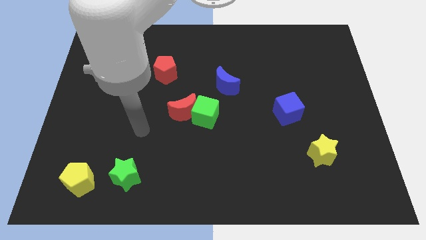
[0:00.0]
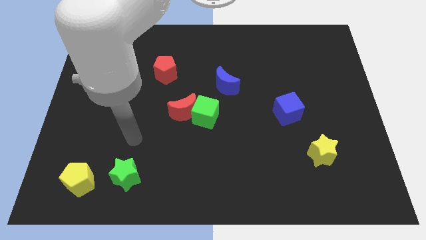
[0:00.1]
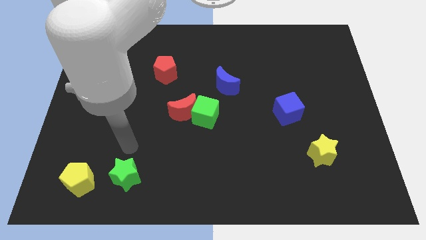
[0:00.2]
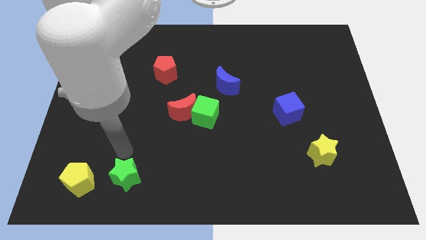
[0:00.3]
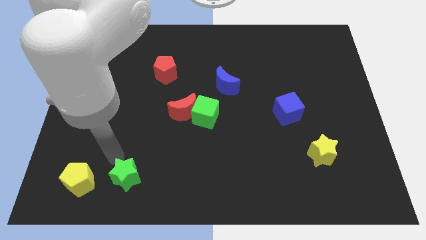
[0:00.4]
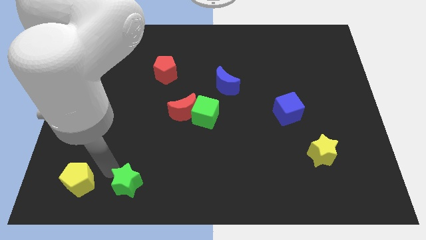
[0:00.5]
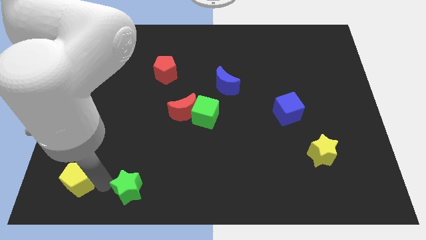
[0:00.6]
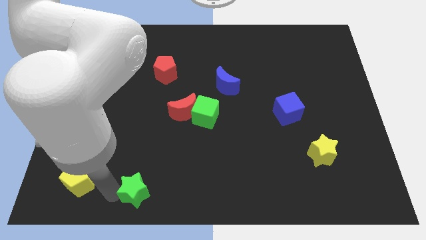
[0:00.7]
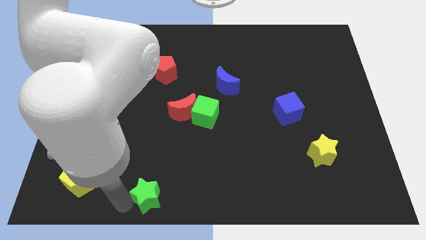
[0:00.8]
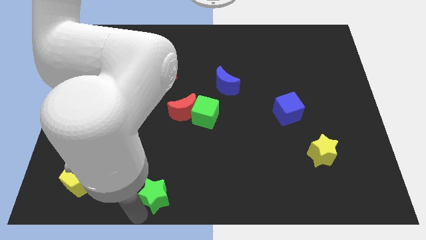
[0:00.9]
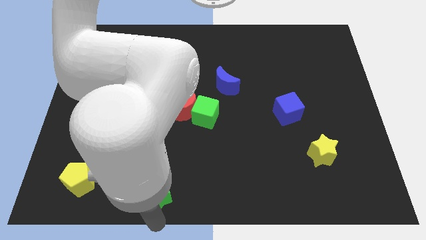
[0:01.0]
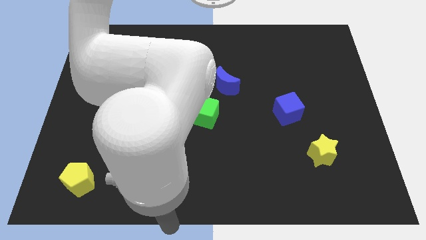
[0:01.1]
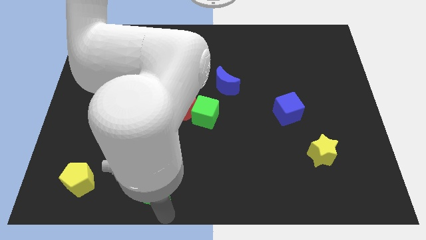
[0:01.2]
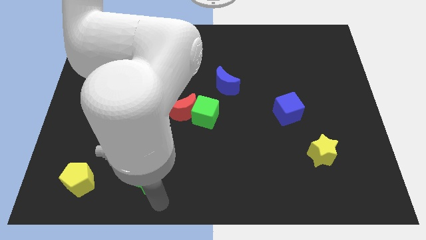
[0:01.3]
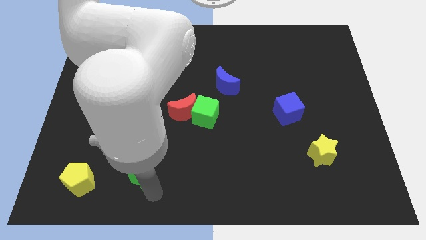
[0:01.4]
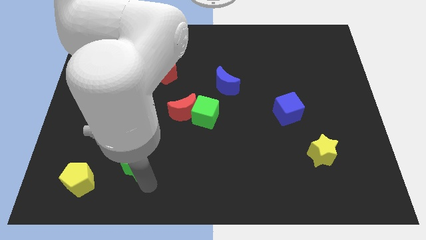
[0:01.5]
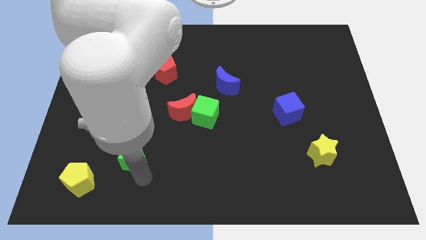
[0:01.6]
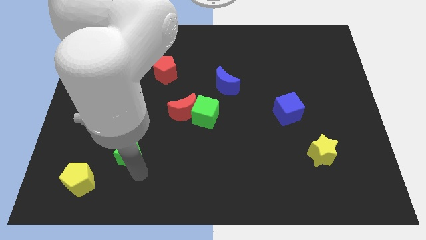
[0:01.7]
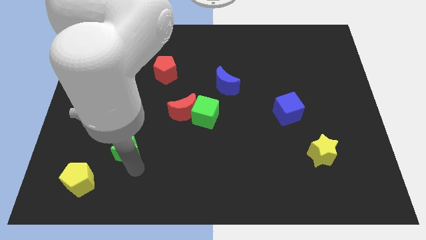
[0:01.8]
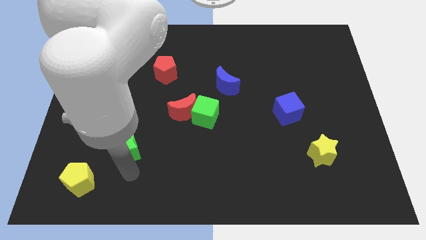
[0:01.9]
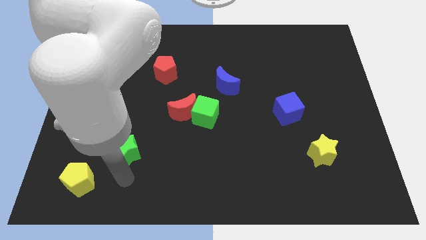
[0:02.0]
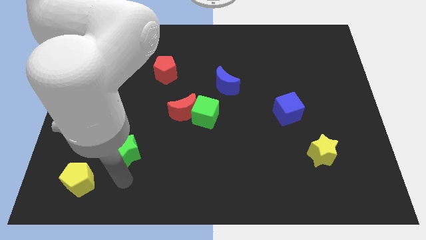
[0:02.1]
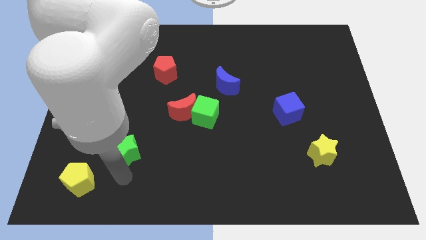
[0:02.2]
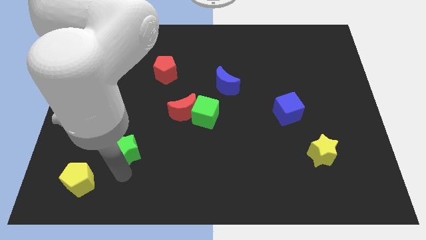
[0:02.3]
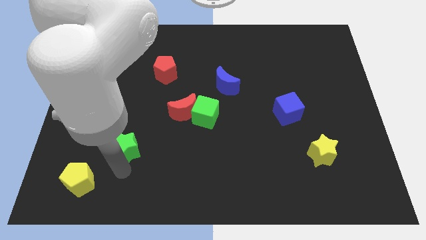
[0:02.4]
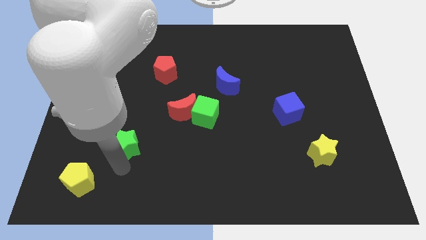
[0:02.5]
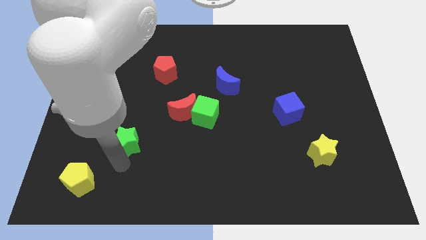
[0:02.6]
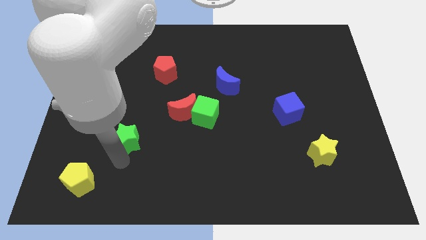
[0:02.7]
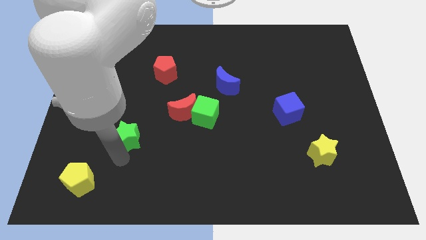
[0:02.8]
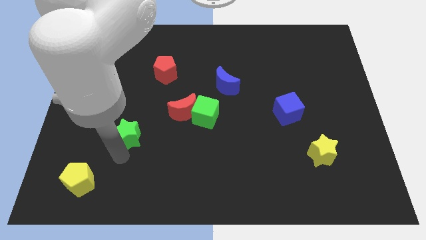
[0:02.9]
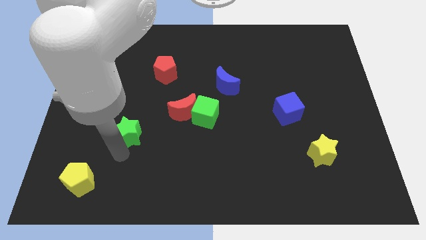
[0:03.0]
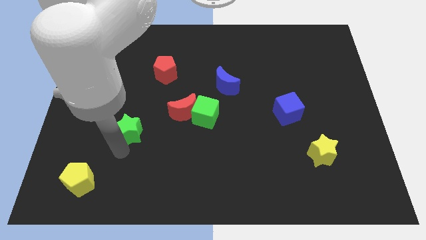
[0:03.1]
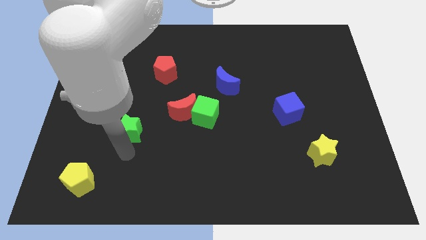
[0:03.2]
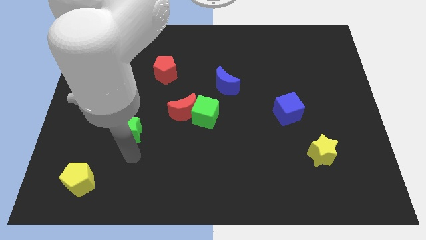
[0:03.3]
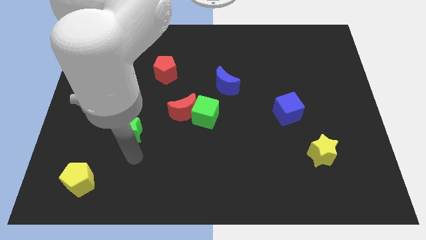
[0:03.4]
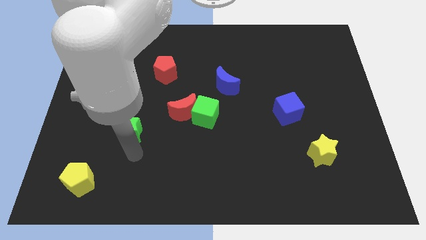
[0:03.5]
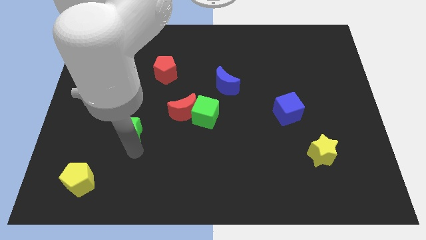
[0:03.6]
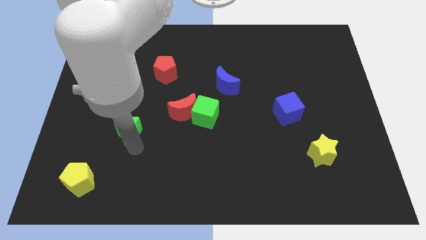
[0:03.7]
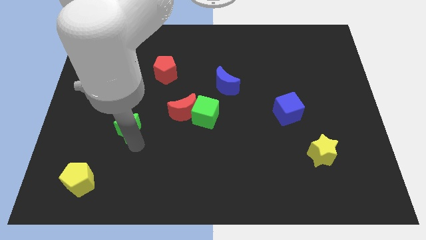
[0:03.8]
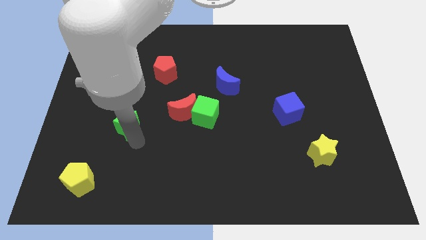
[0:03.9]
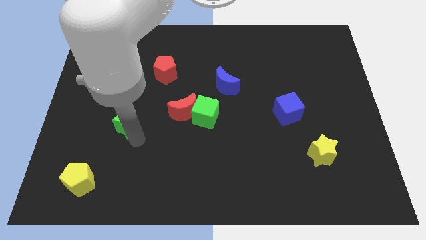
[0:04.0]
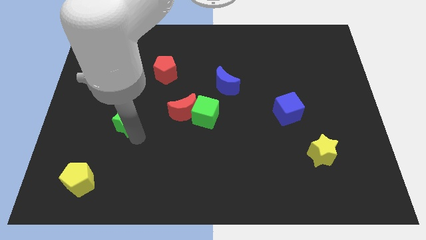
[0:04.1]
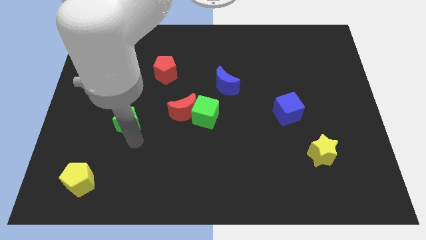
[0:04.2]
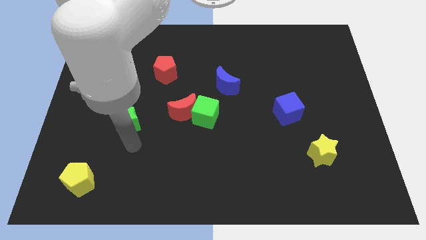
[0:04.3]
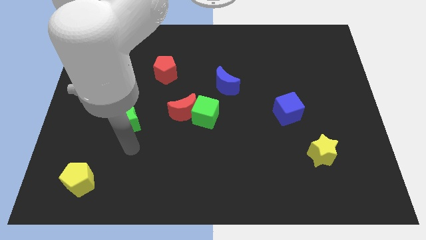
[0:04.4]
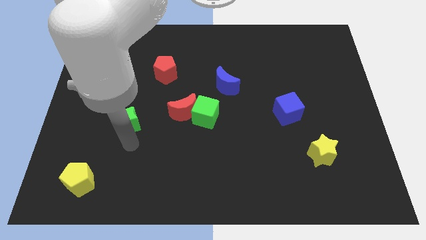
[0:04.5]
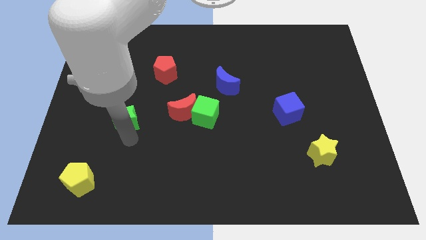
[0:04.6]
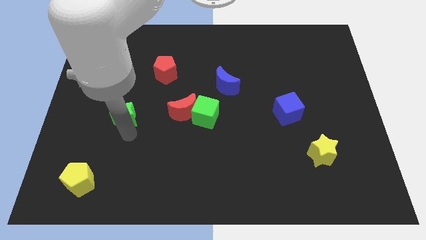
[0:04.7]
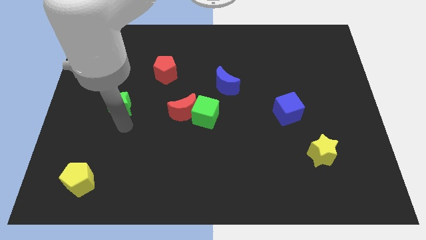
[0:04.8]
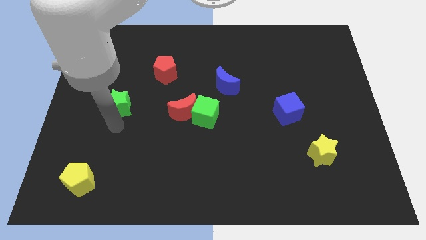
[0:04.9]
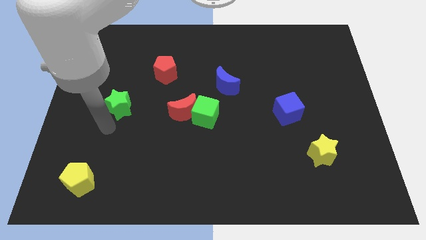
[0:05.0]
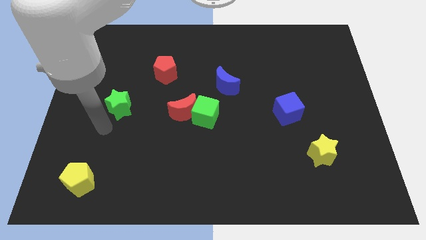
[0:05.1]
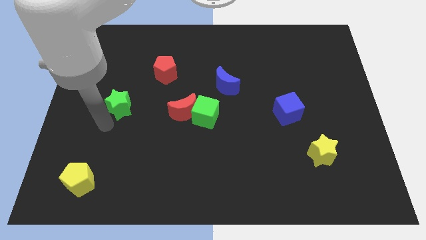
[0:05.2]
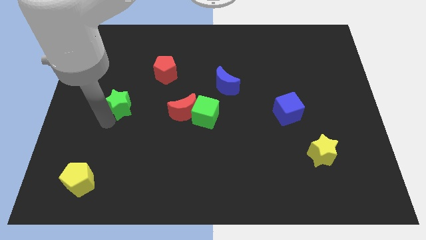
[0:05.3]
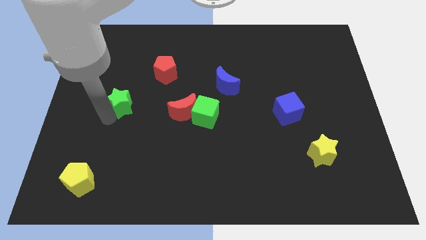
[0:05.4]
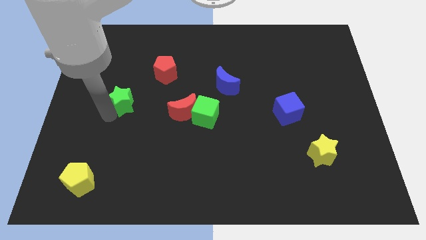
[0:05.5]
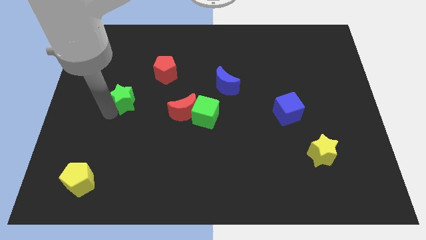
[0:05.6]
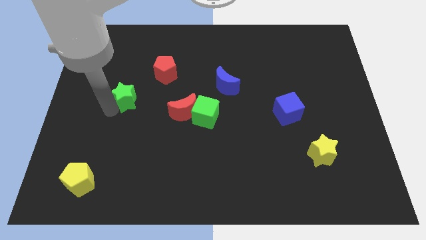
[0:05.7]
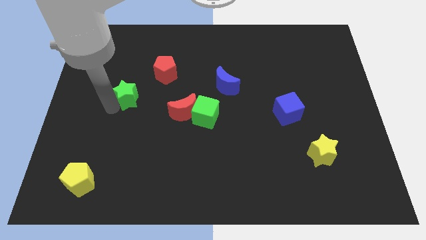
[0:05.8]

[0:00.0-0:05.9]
push the green star up

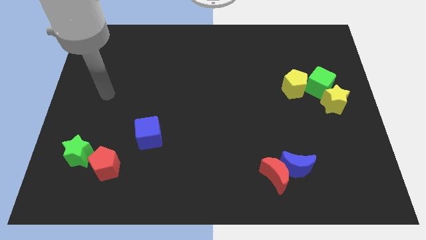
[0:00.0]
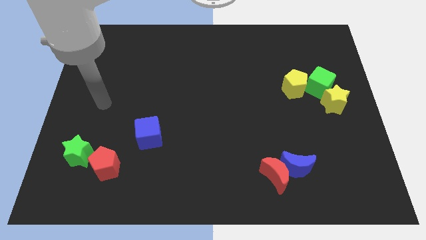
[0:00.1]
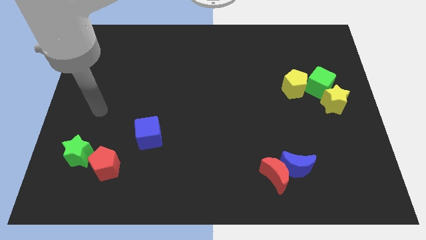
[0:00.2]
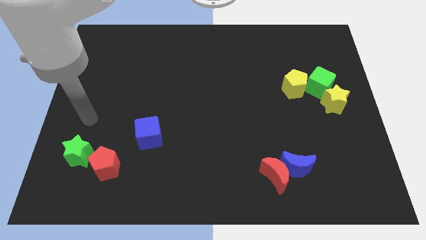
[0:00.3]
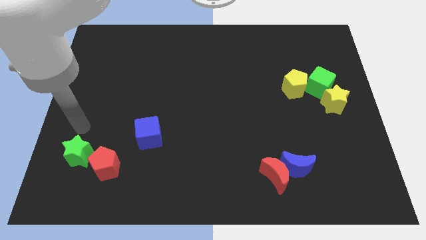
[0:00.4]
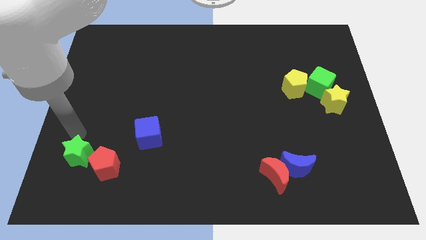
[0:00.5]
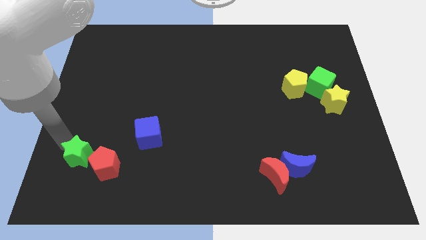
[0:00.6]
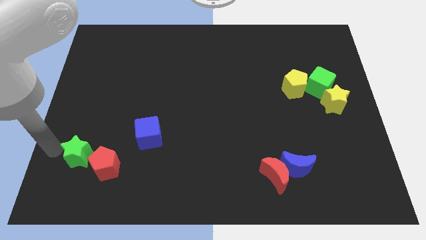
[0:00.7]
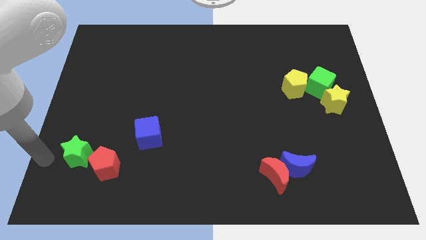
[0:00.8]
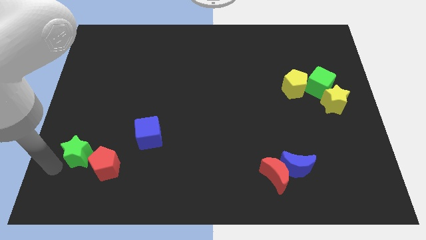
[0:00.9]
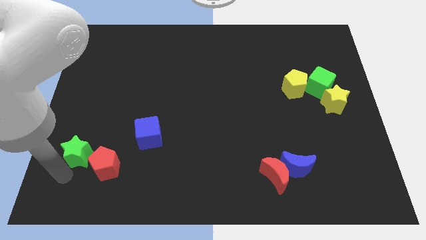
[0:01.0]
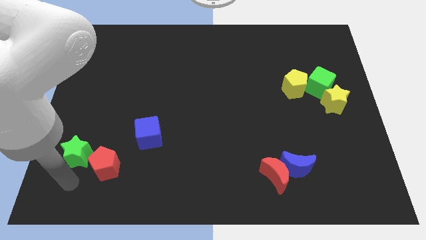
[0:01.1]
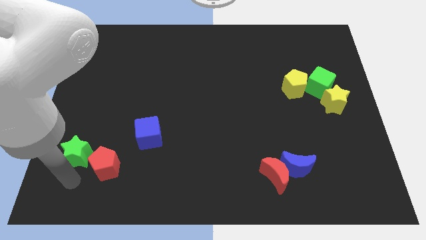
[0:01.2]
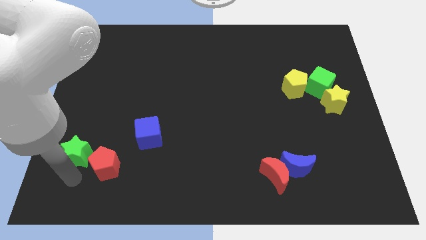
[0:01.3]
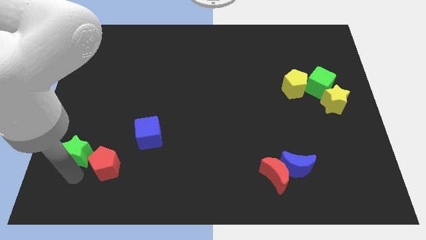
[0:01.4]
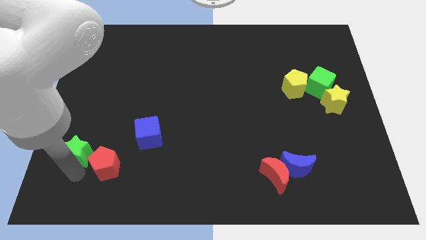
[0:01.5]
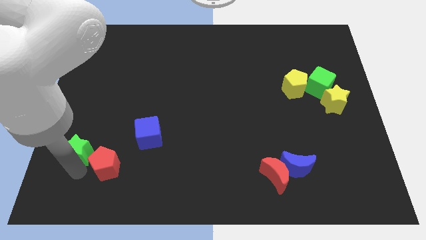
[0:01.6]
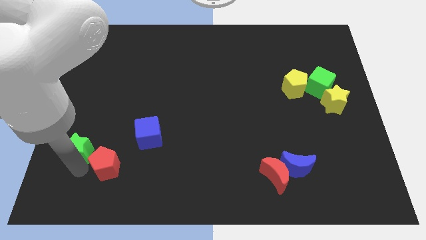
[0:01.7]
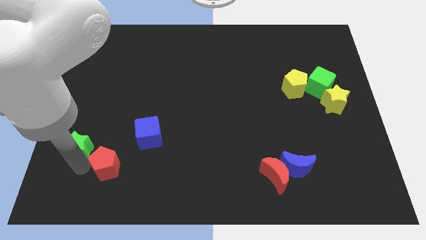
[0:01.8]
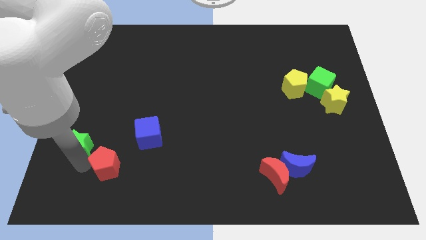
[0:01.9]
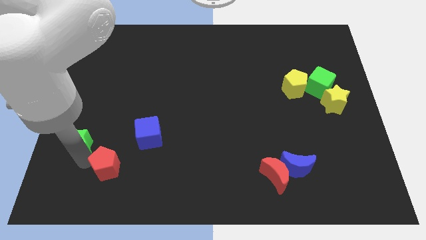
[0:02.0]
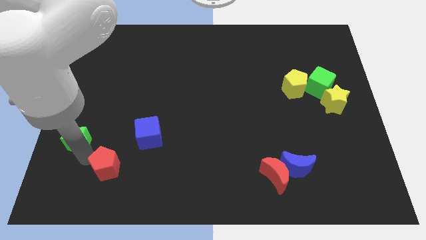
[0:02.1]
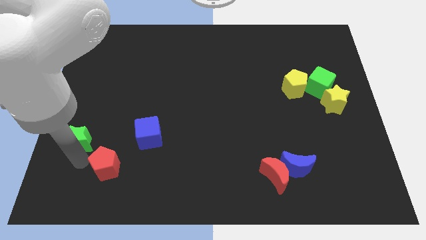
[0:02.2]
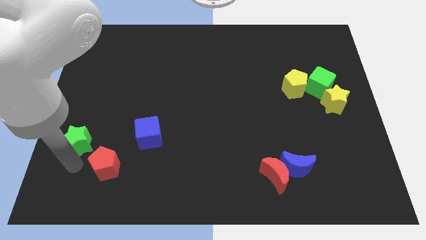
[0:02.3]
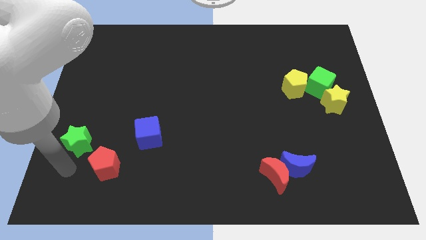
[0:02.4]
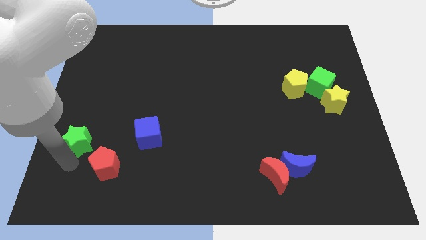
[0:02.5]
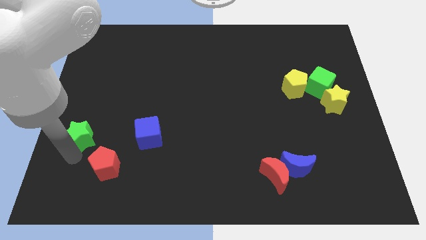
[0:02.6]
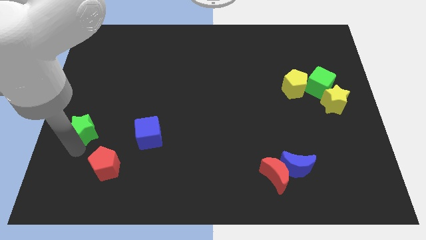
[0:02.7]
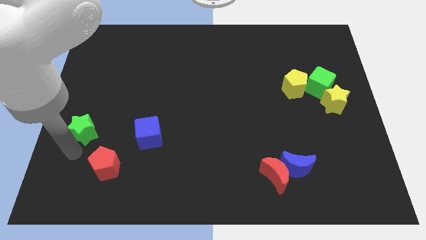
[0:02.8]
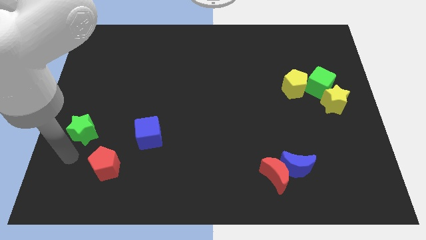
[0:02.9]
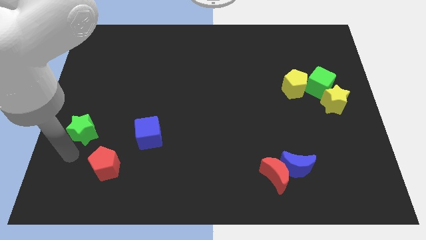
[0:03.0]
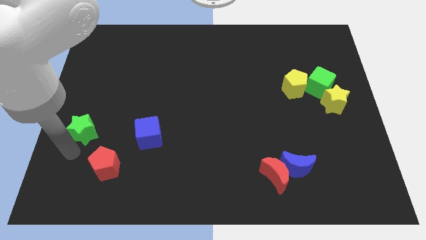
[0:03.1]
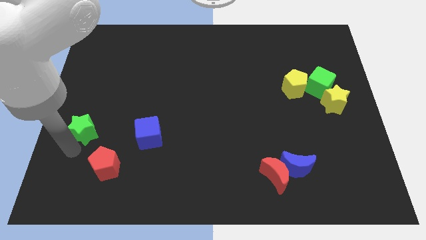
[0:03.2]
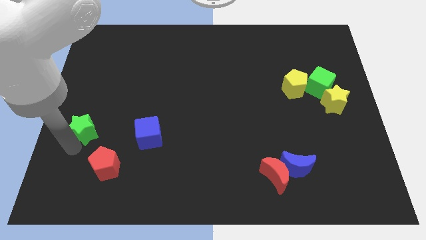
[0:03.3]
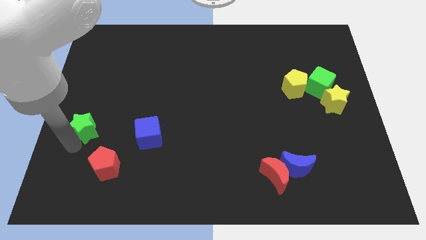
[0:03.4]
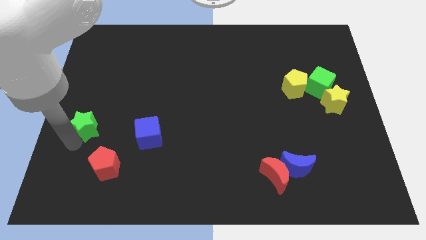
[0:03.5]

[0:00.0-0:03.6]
slightly slide the green star upwards
